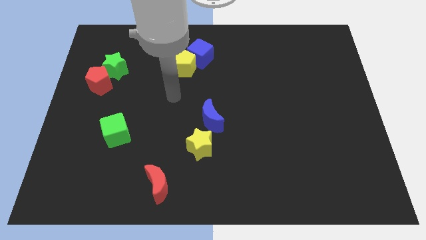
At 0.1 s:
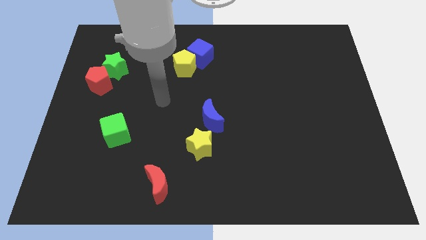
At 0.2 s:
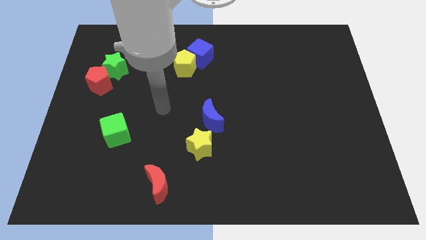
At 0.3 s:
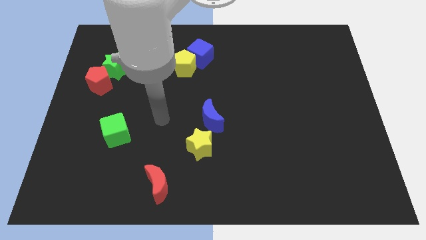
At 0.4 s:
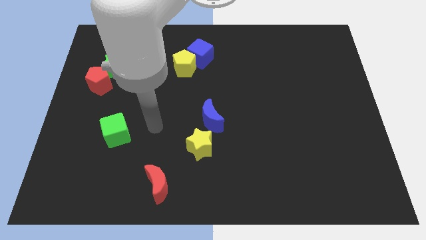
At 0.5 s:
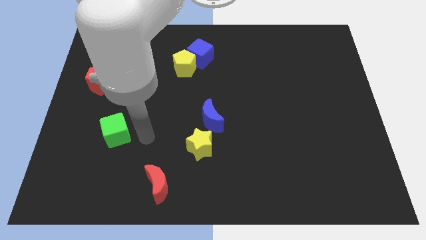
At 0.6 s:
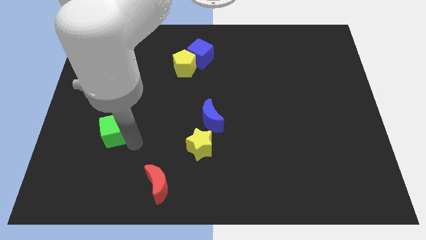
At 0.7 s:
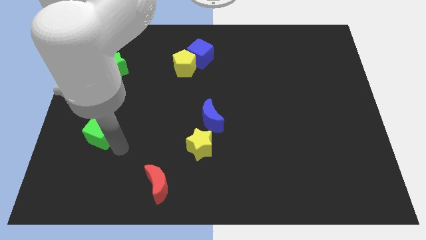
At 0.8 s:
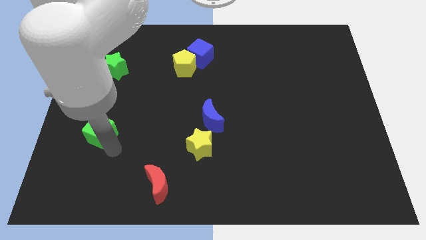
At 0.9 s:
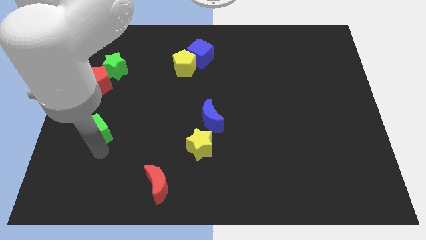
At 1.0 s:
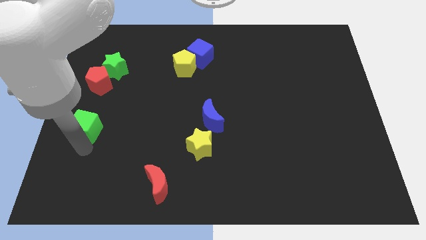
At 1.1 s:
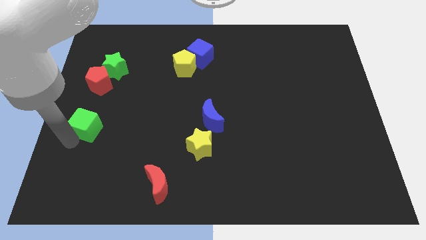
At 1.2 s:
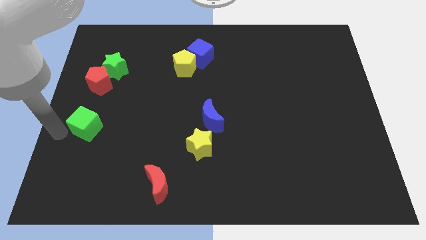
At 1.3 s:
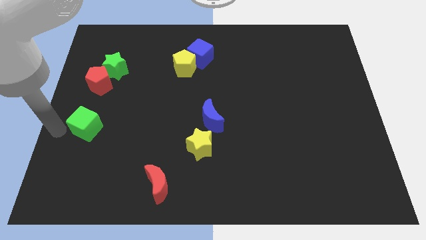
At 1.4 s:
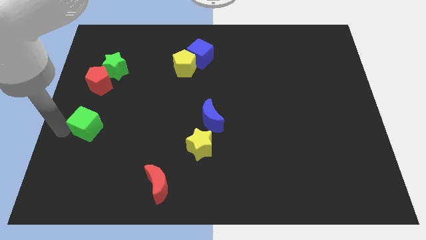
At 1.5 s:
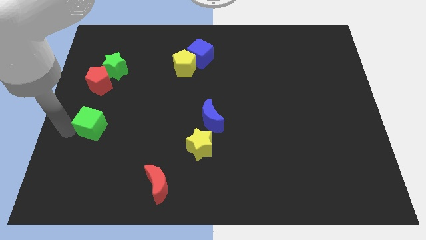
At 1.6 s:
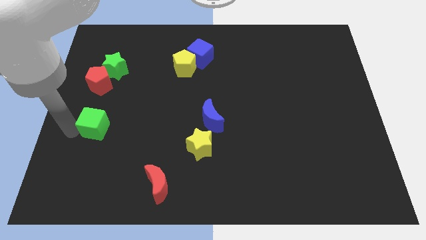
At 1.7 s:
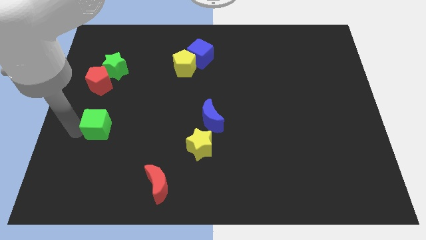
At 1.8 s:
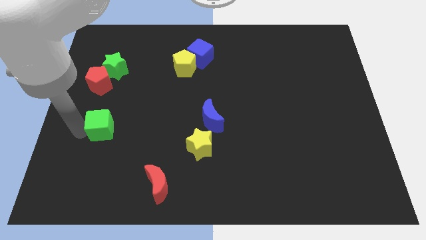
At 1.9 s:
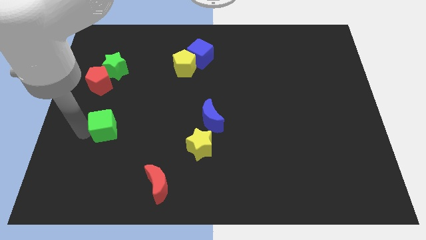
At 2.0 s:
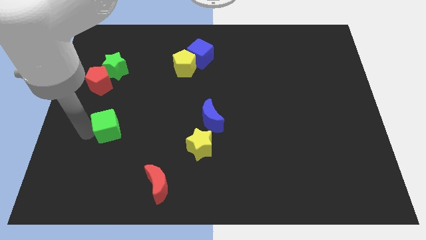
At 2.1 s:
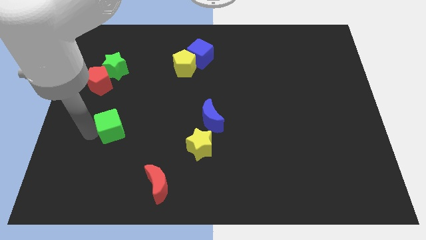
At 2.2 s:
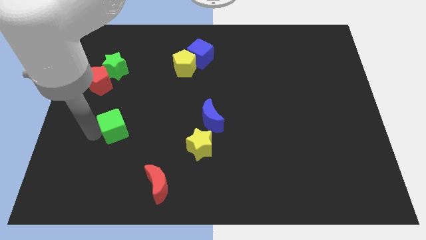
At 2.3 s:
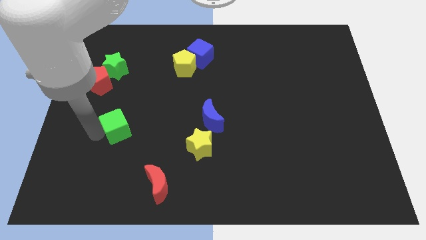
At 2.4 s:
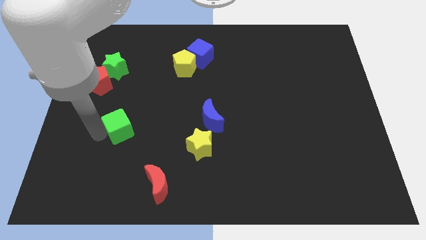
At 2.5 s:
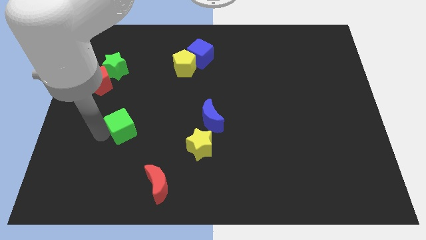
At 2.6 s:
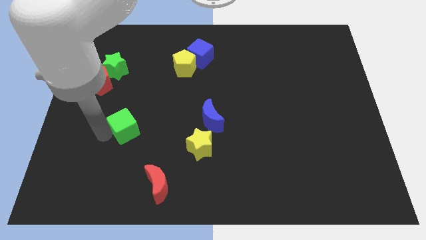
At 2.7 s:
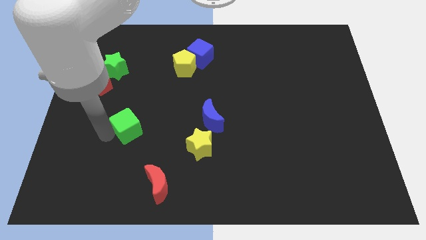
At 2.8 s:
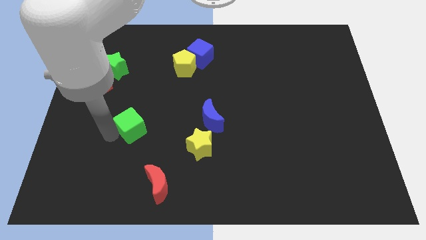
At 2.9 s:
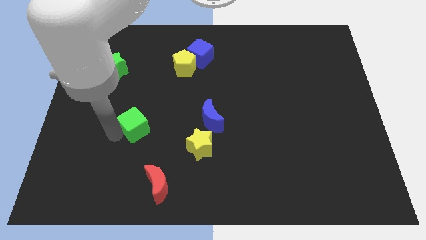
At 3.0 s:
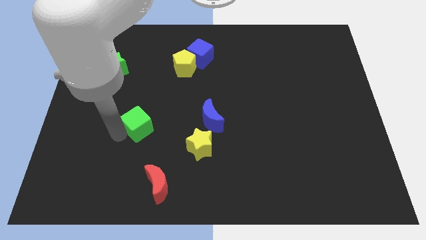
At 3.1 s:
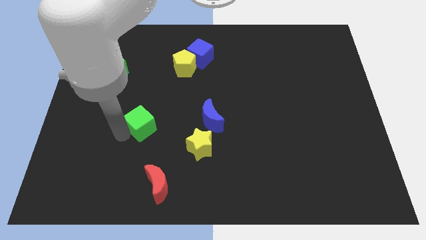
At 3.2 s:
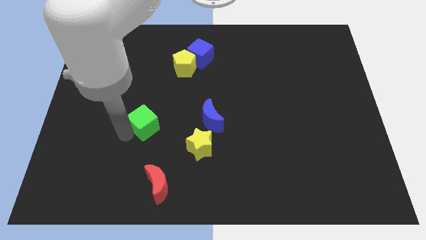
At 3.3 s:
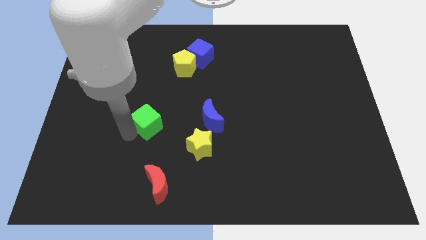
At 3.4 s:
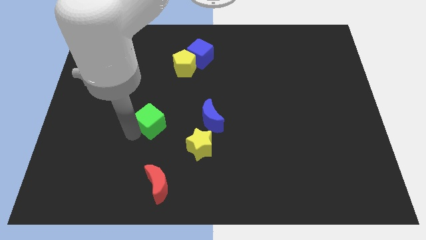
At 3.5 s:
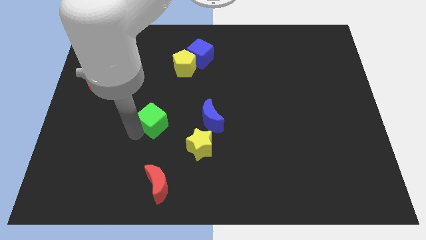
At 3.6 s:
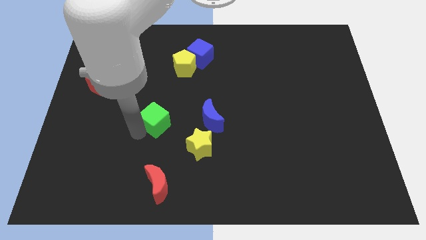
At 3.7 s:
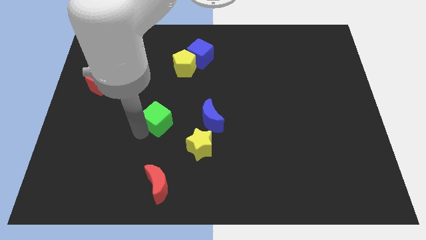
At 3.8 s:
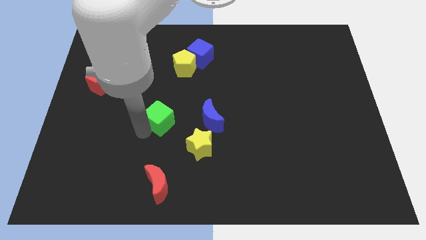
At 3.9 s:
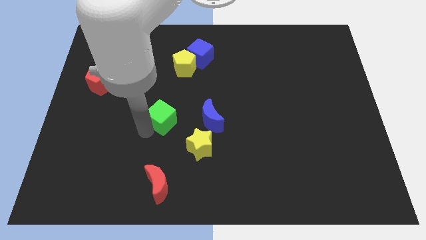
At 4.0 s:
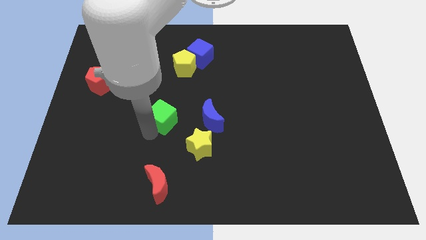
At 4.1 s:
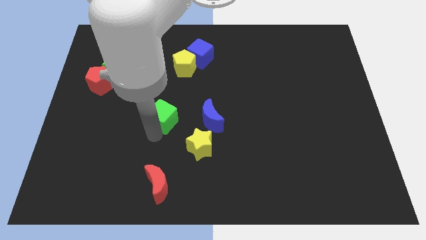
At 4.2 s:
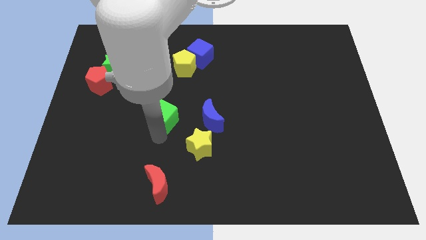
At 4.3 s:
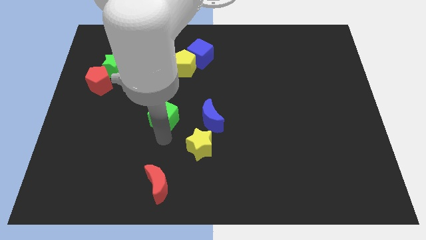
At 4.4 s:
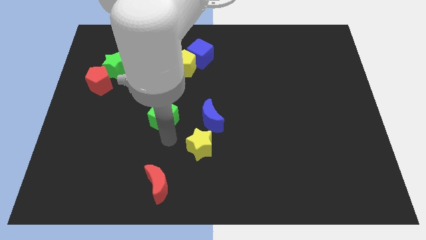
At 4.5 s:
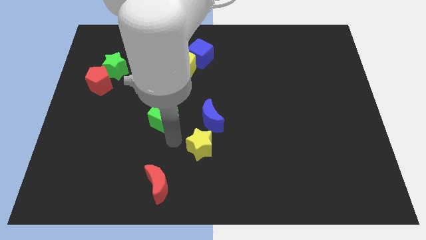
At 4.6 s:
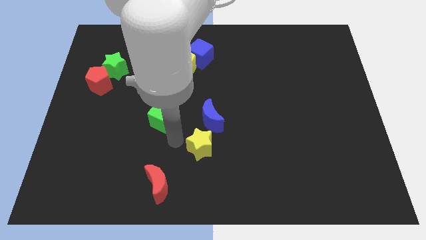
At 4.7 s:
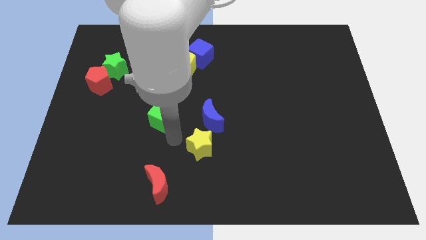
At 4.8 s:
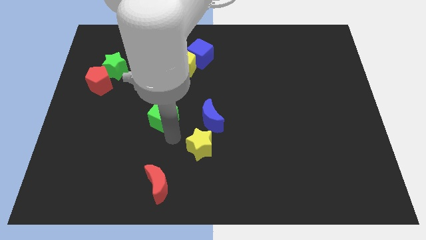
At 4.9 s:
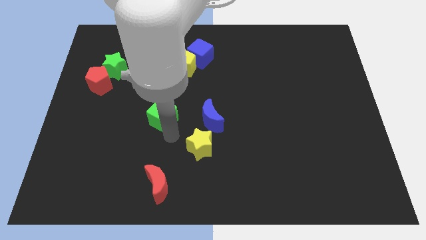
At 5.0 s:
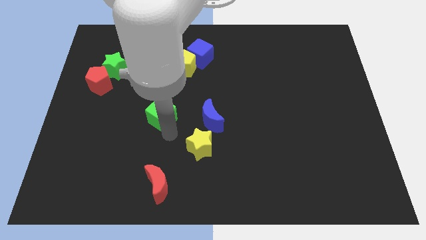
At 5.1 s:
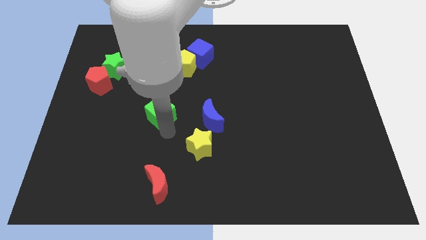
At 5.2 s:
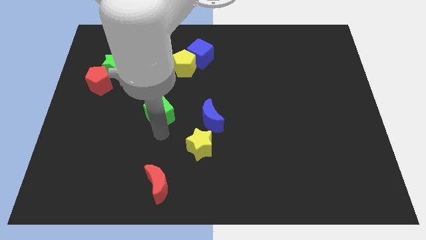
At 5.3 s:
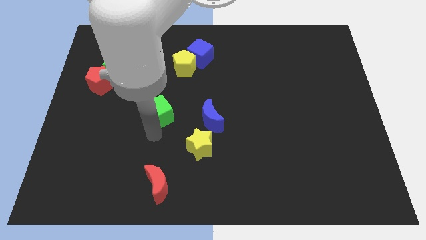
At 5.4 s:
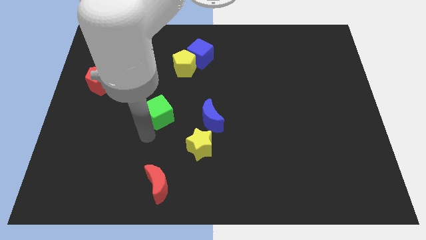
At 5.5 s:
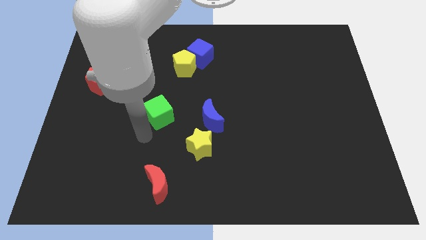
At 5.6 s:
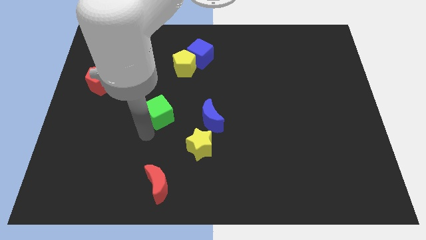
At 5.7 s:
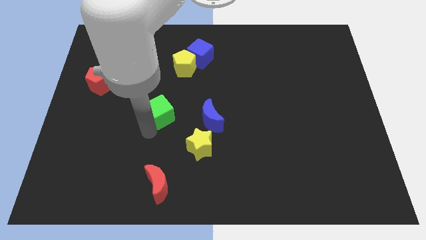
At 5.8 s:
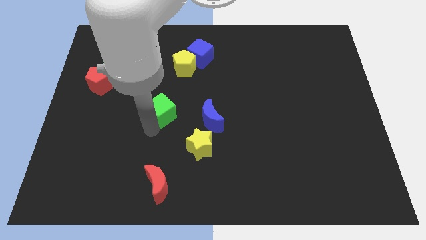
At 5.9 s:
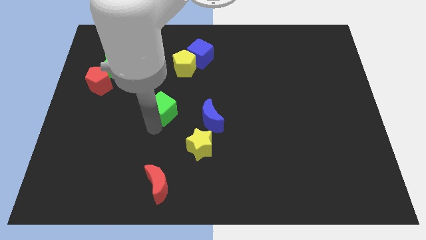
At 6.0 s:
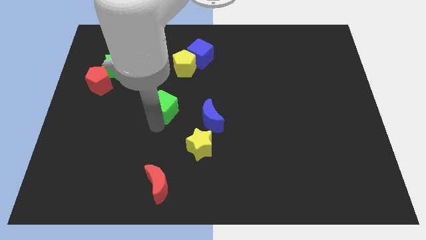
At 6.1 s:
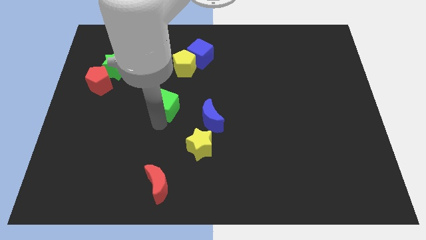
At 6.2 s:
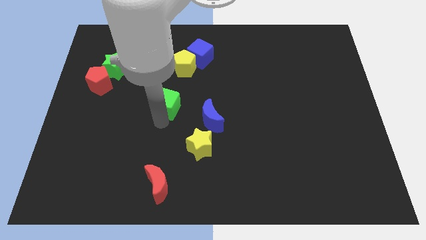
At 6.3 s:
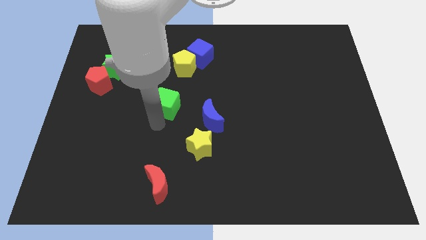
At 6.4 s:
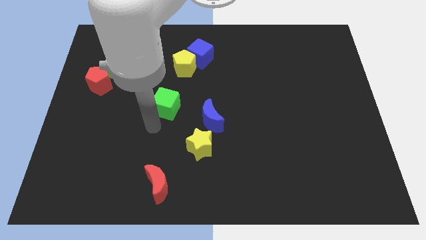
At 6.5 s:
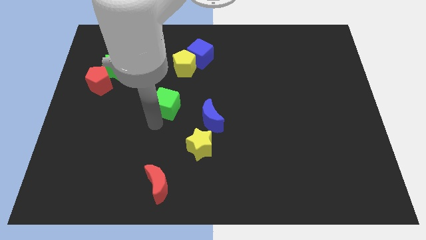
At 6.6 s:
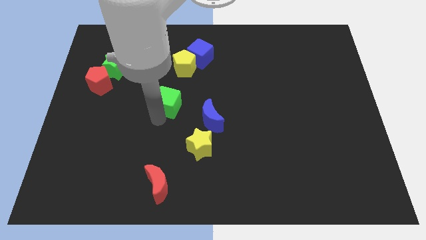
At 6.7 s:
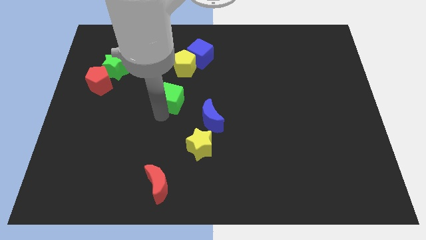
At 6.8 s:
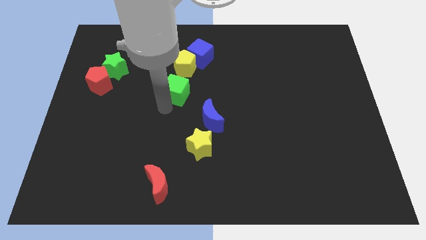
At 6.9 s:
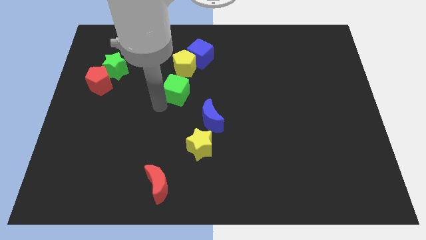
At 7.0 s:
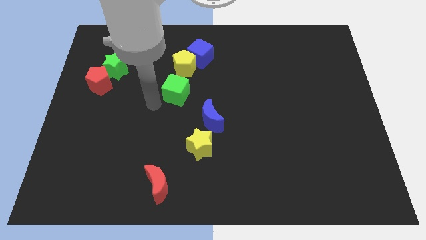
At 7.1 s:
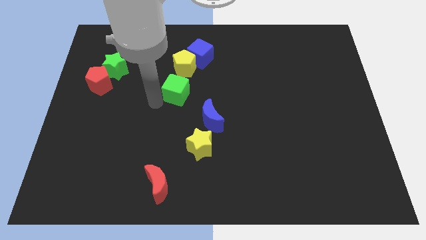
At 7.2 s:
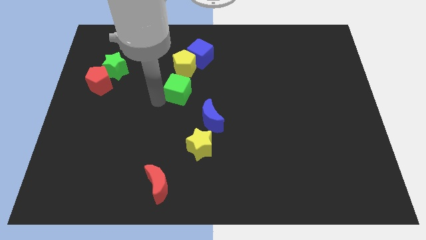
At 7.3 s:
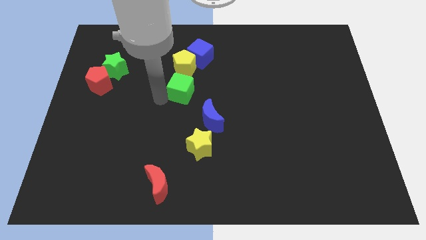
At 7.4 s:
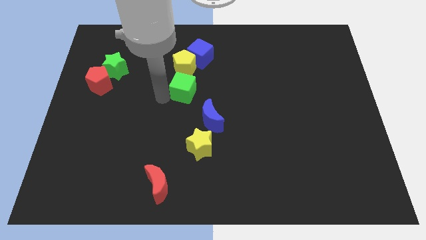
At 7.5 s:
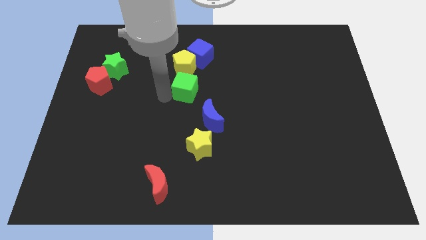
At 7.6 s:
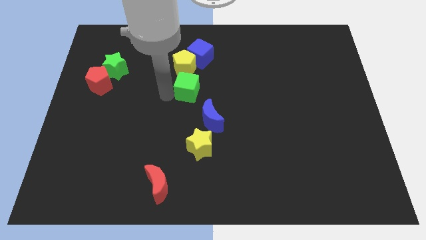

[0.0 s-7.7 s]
slide the green cube diagonally up and right

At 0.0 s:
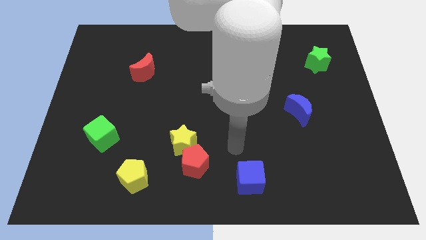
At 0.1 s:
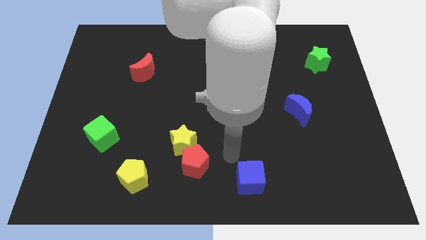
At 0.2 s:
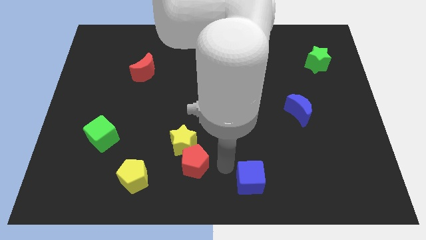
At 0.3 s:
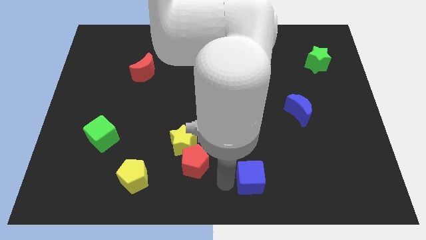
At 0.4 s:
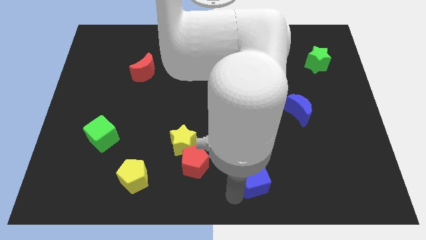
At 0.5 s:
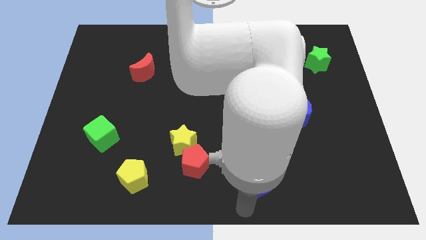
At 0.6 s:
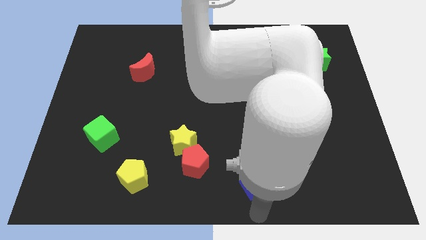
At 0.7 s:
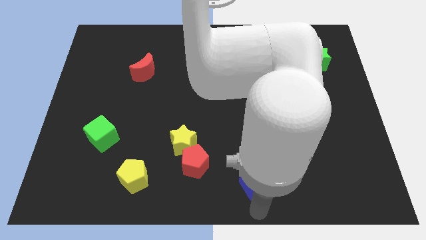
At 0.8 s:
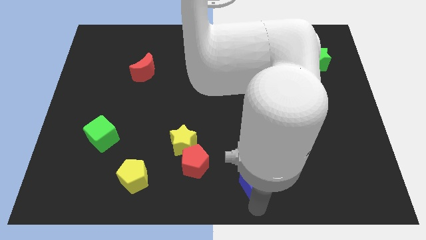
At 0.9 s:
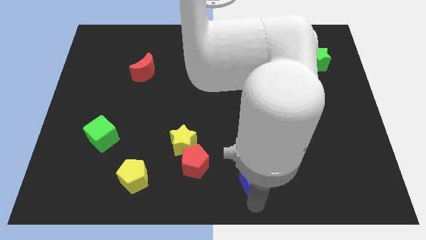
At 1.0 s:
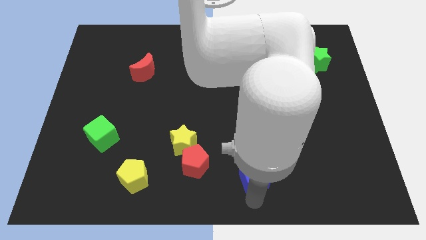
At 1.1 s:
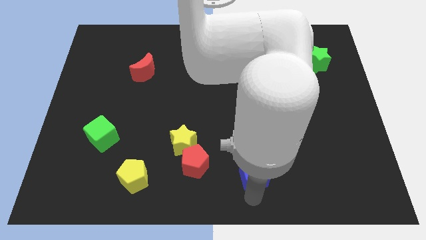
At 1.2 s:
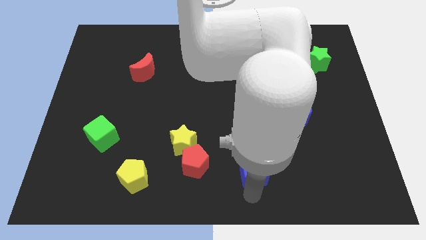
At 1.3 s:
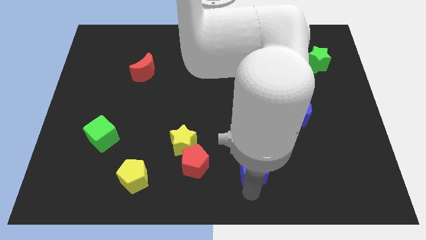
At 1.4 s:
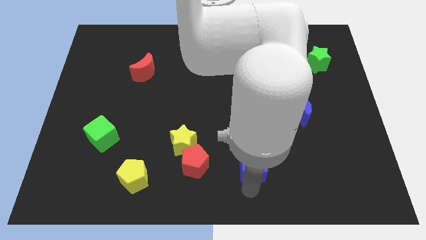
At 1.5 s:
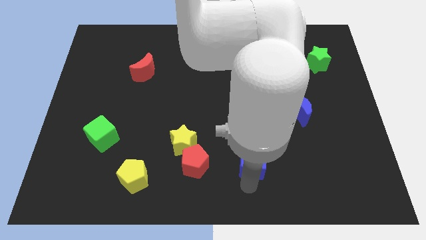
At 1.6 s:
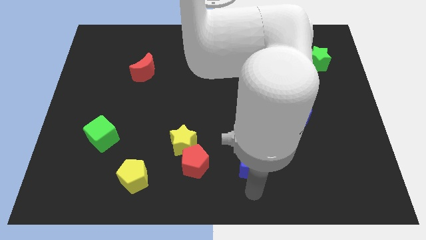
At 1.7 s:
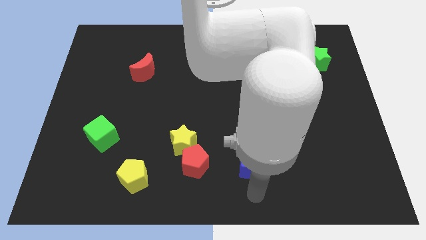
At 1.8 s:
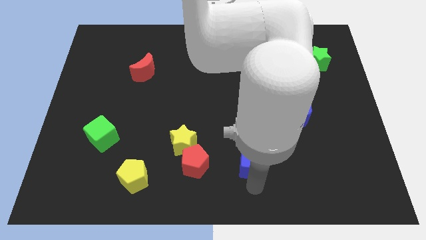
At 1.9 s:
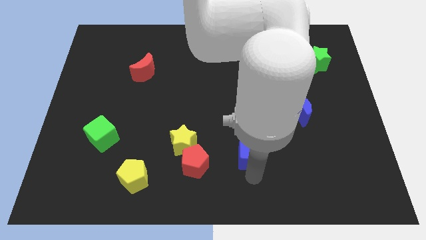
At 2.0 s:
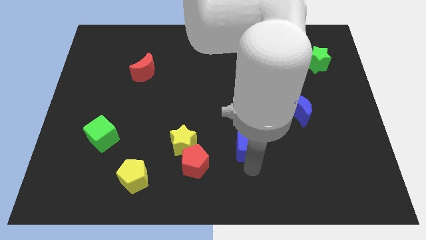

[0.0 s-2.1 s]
slightly move the blue cube up
